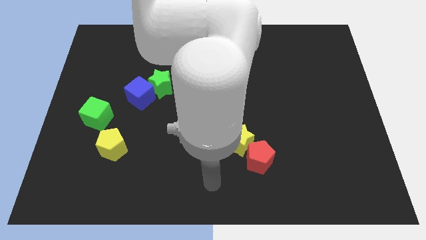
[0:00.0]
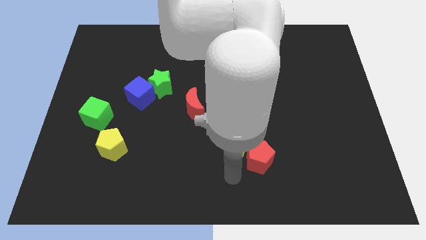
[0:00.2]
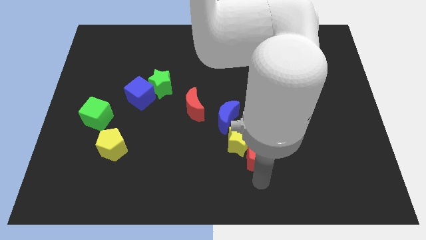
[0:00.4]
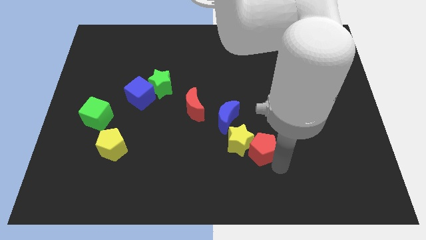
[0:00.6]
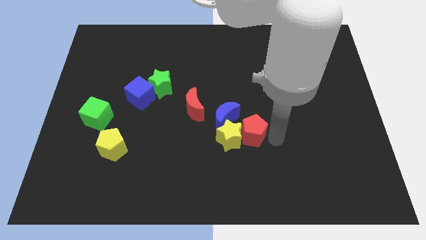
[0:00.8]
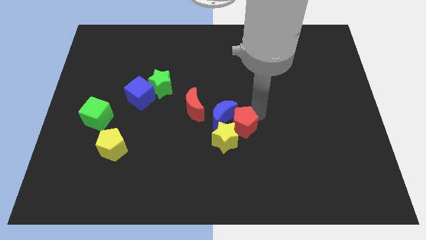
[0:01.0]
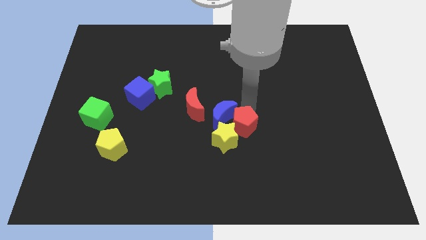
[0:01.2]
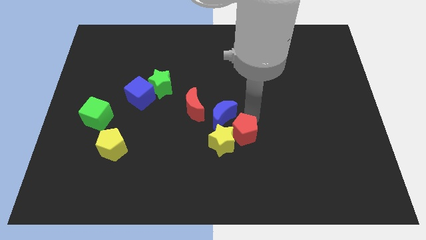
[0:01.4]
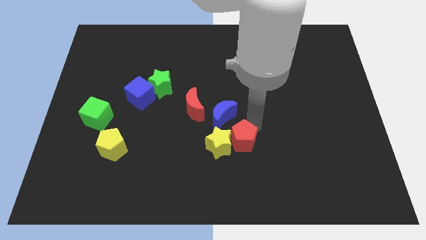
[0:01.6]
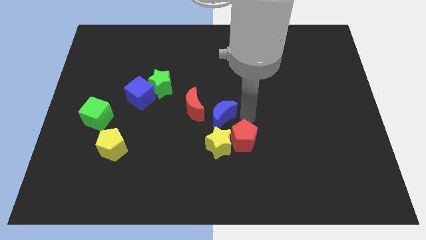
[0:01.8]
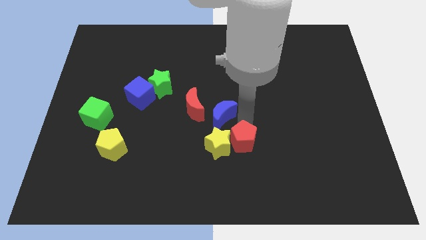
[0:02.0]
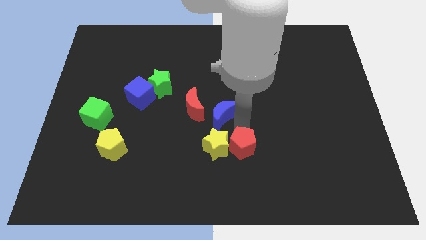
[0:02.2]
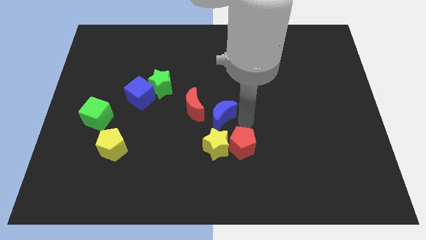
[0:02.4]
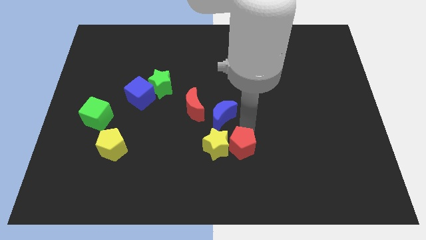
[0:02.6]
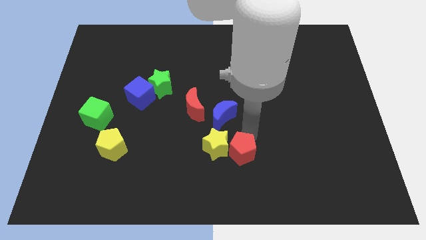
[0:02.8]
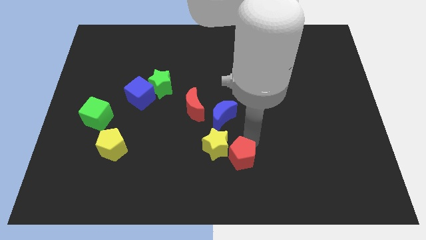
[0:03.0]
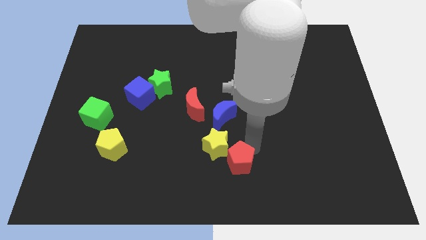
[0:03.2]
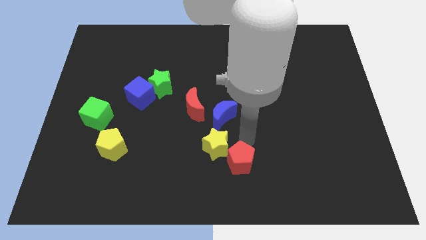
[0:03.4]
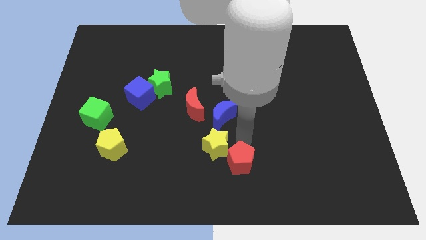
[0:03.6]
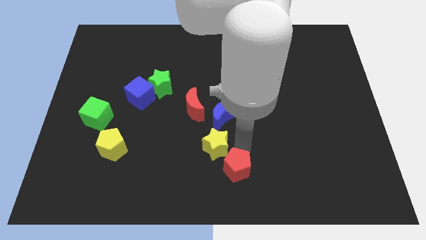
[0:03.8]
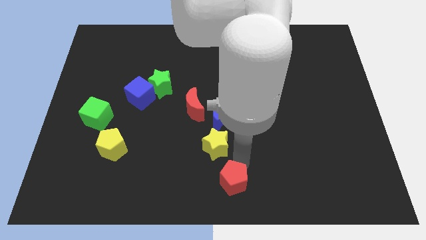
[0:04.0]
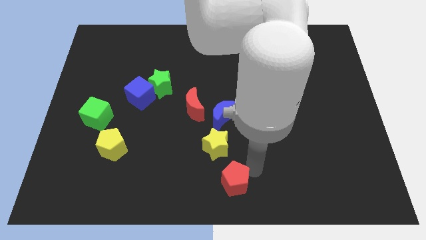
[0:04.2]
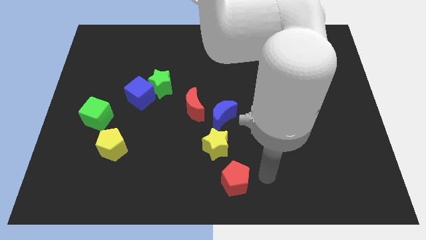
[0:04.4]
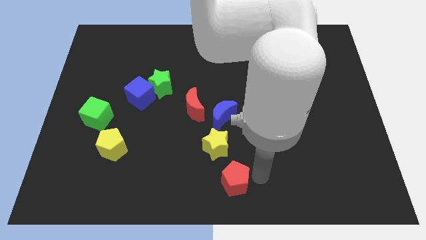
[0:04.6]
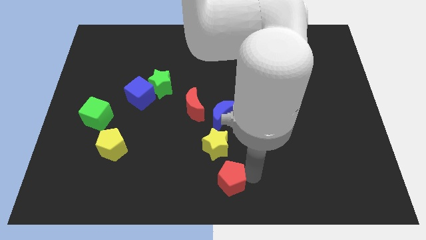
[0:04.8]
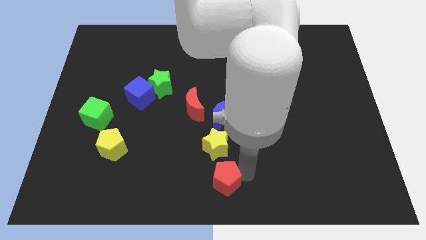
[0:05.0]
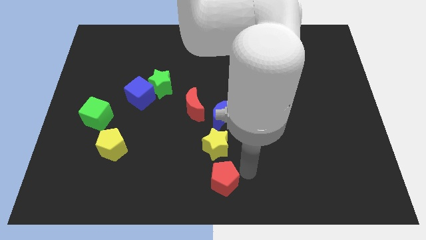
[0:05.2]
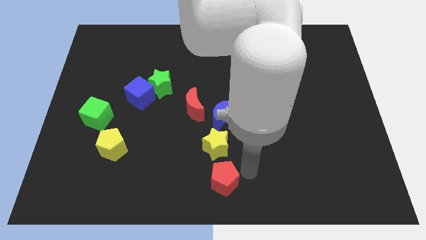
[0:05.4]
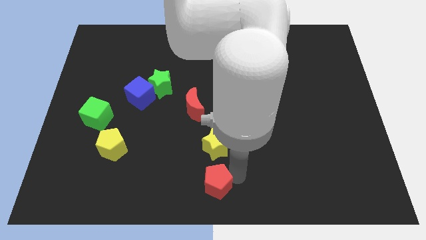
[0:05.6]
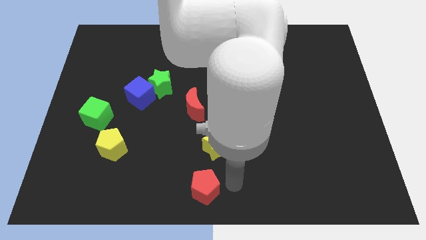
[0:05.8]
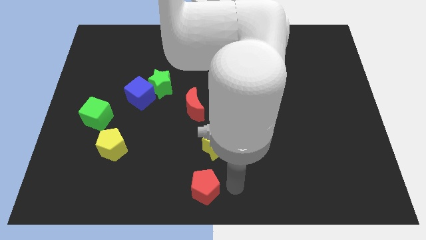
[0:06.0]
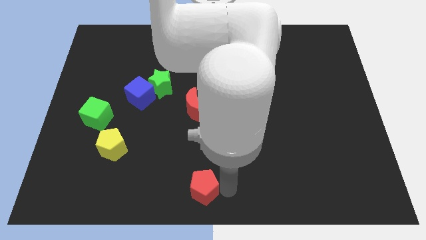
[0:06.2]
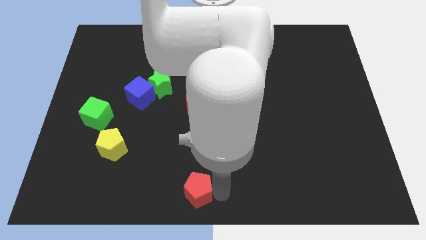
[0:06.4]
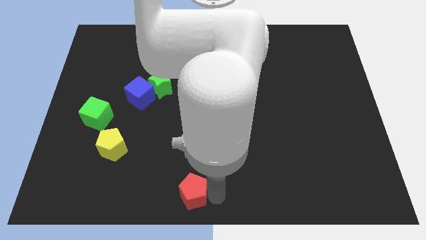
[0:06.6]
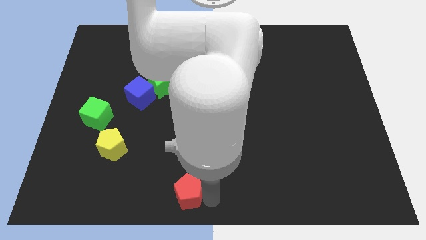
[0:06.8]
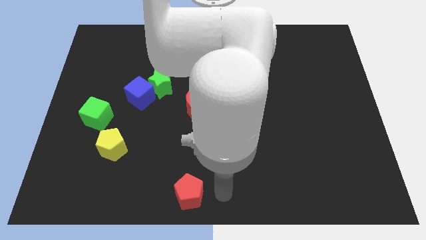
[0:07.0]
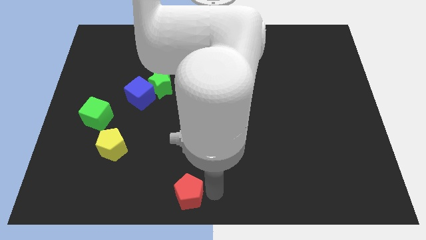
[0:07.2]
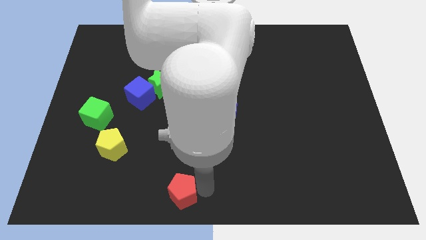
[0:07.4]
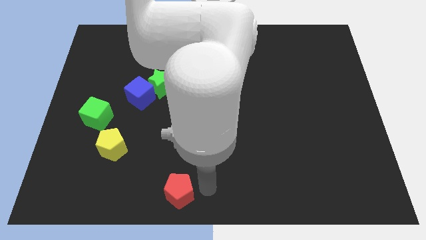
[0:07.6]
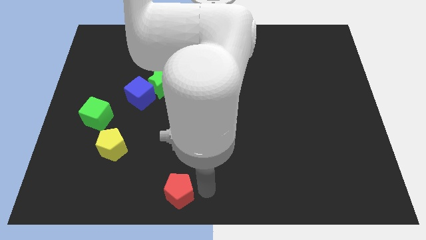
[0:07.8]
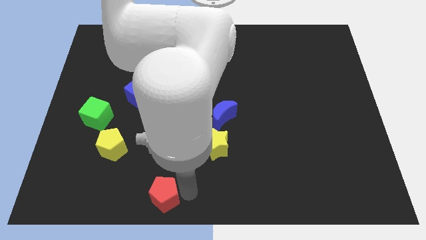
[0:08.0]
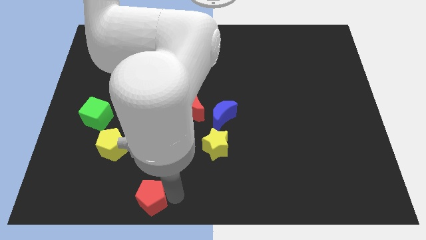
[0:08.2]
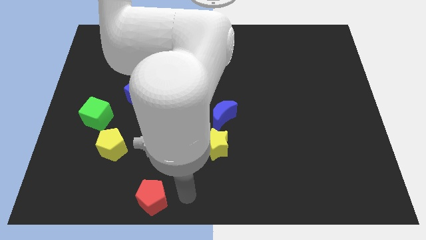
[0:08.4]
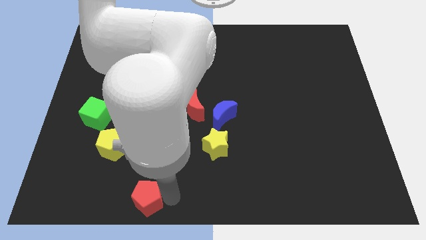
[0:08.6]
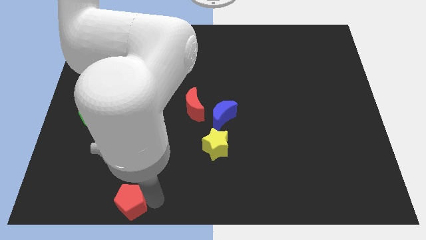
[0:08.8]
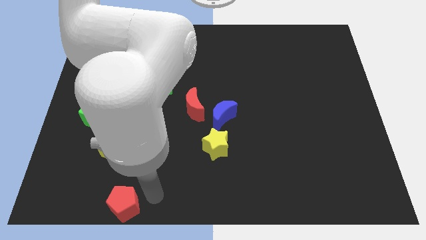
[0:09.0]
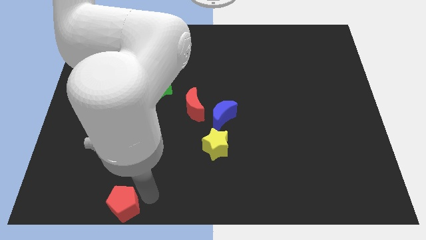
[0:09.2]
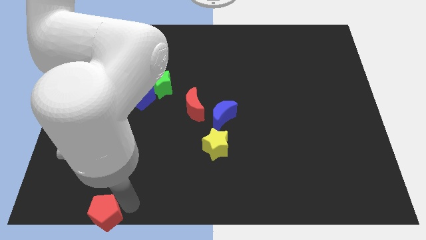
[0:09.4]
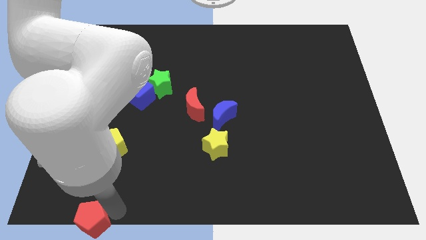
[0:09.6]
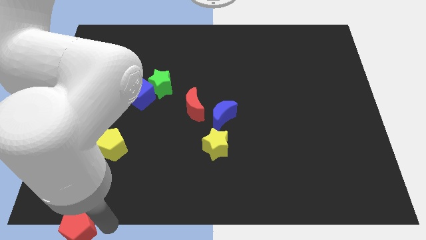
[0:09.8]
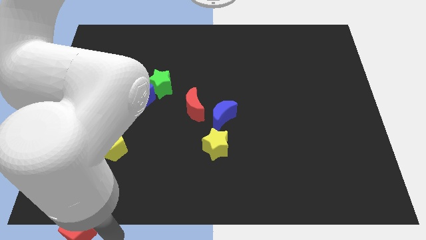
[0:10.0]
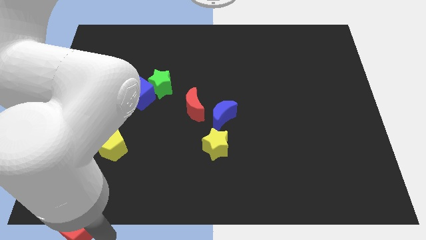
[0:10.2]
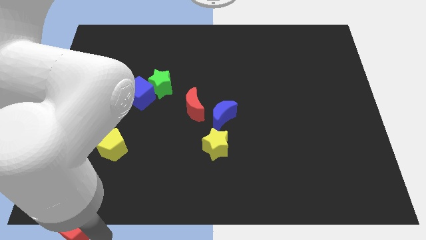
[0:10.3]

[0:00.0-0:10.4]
move the red pentagon to the bottom left corner
